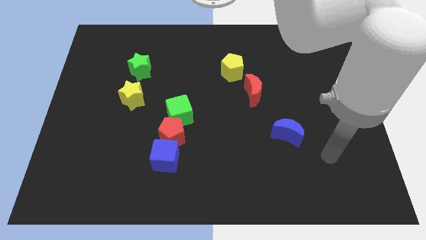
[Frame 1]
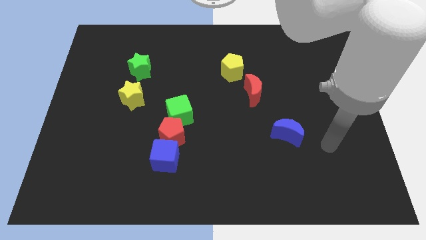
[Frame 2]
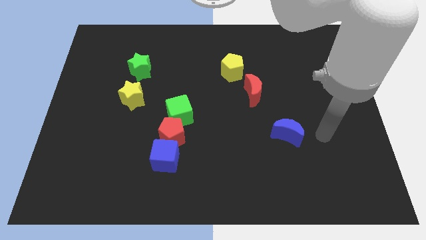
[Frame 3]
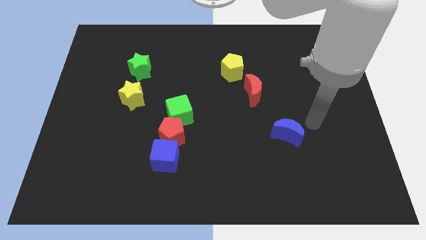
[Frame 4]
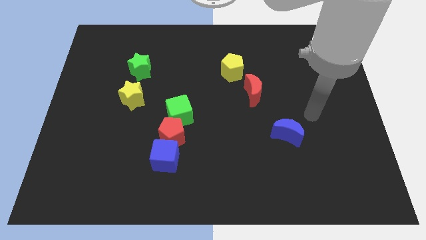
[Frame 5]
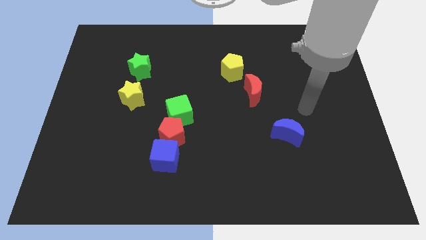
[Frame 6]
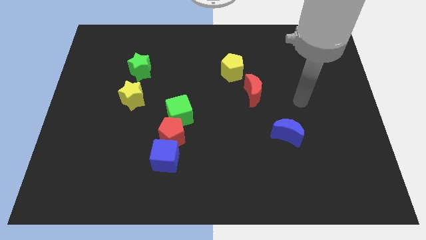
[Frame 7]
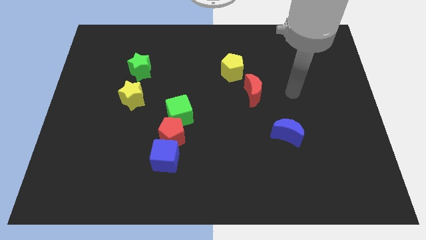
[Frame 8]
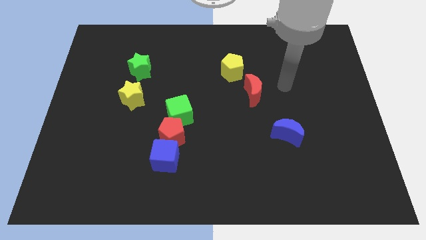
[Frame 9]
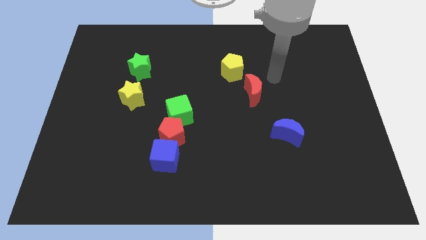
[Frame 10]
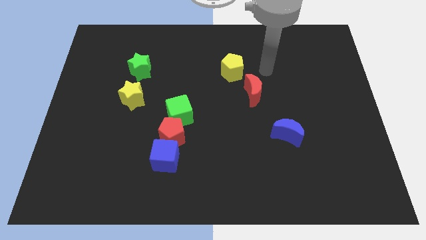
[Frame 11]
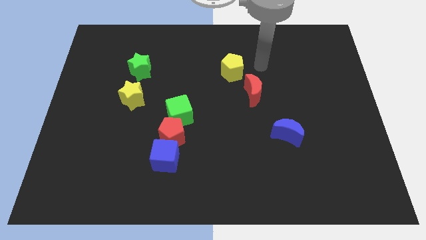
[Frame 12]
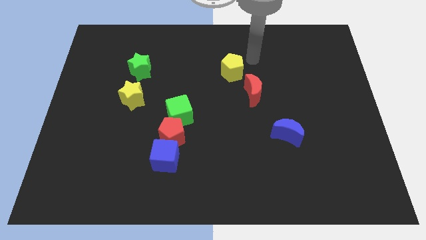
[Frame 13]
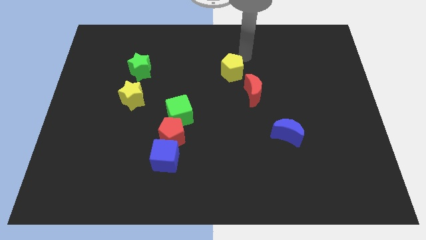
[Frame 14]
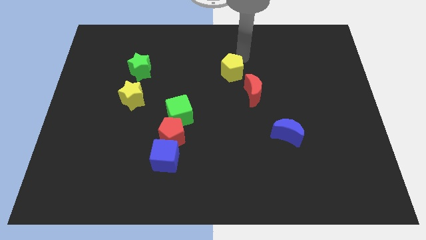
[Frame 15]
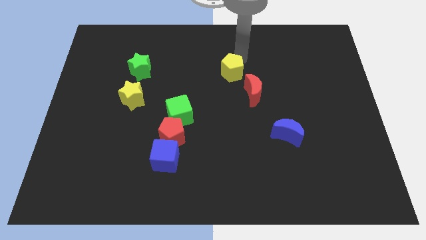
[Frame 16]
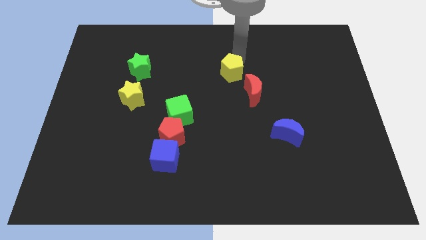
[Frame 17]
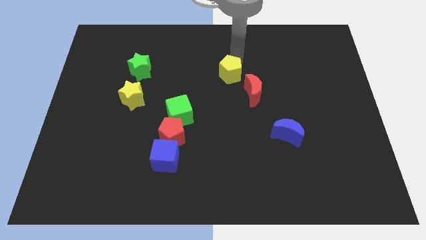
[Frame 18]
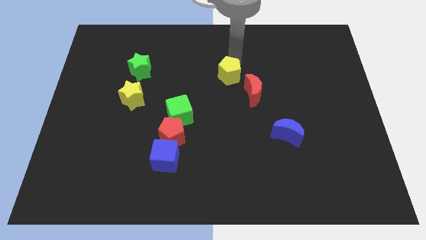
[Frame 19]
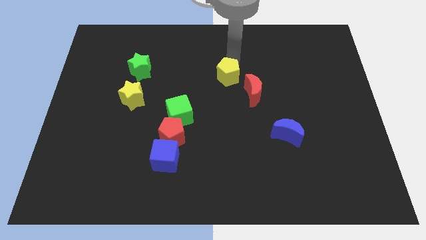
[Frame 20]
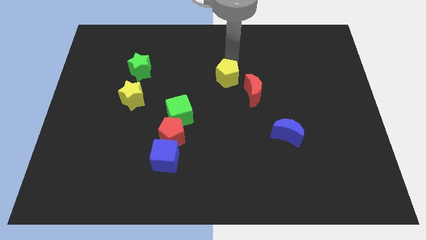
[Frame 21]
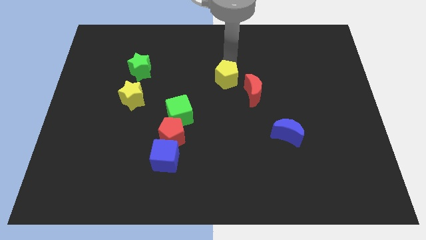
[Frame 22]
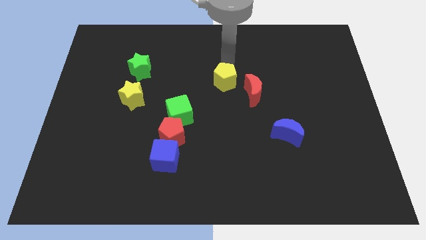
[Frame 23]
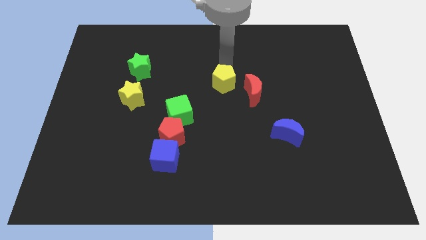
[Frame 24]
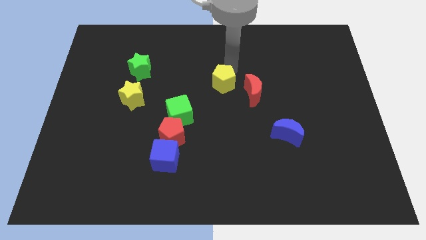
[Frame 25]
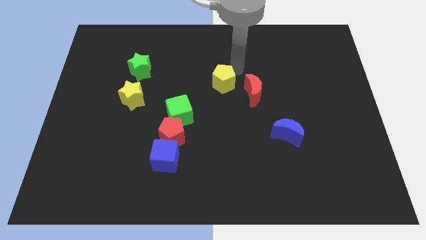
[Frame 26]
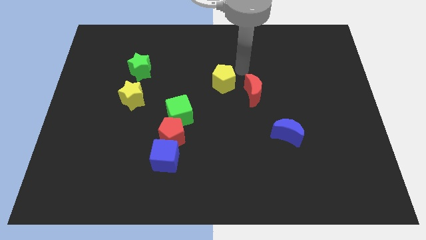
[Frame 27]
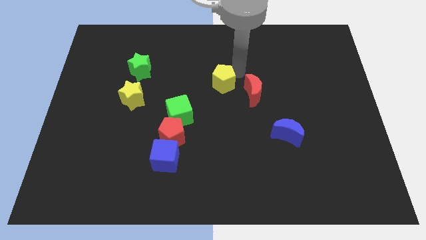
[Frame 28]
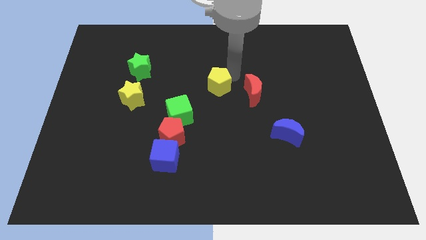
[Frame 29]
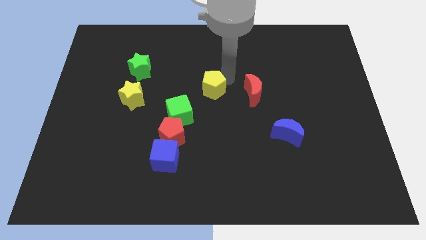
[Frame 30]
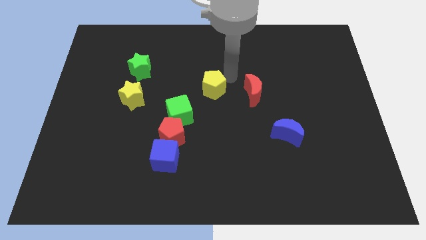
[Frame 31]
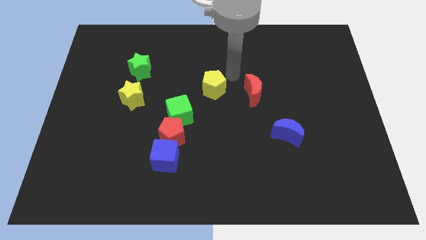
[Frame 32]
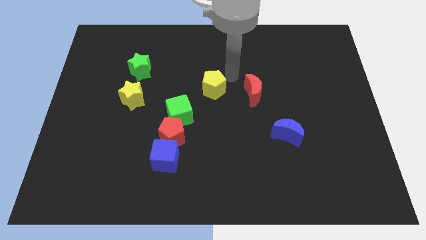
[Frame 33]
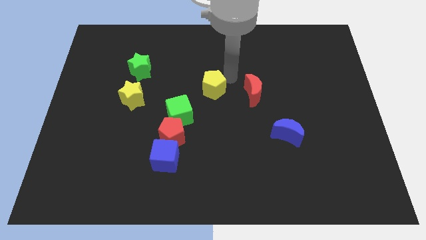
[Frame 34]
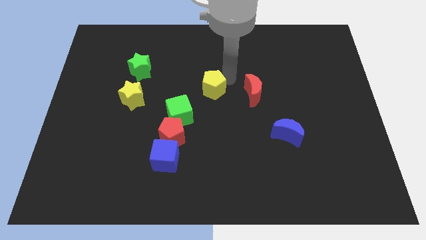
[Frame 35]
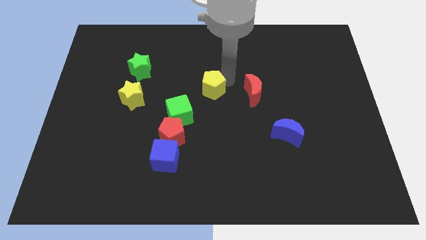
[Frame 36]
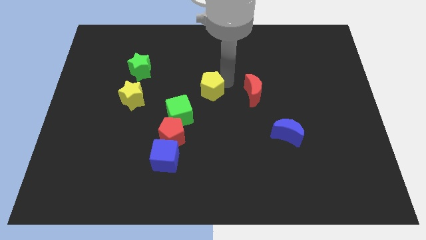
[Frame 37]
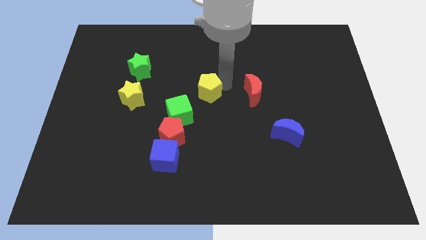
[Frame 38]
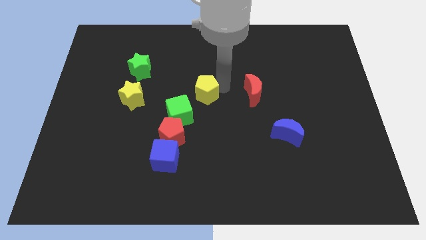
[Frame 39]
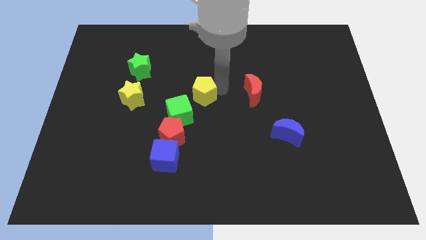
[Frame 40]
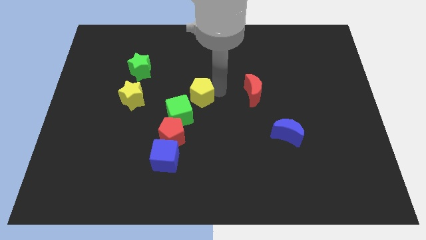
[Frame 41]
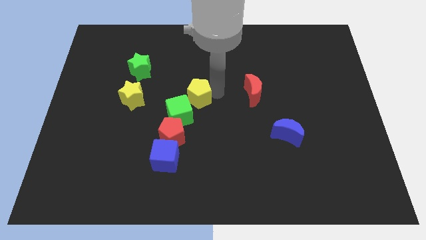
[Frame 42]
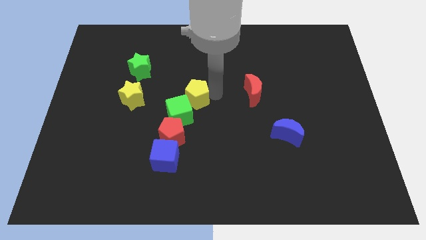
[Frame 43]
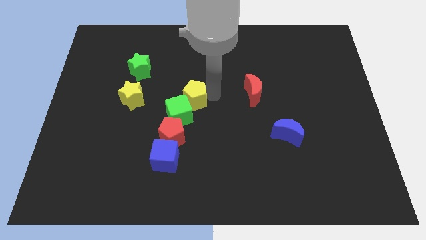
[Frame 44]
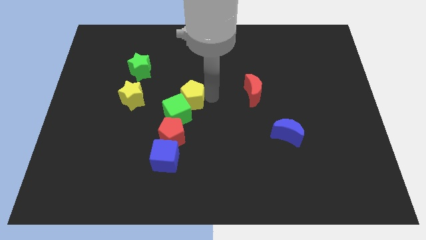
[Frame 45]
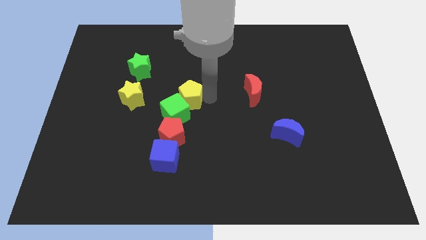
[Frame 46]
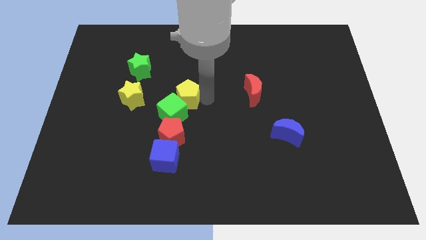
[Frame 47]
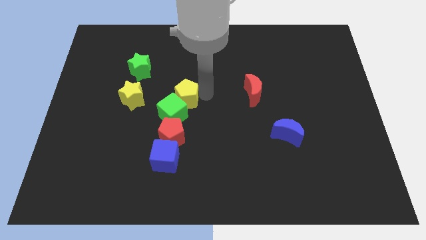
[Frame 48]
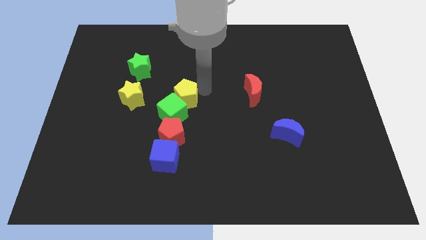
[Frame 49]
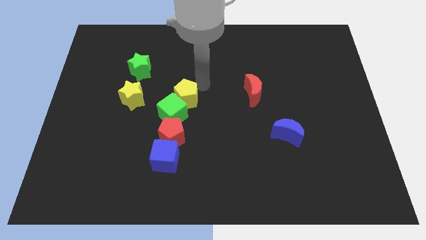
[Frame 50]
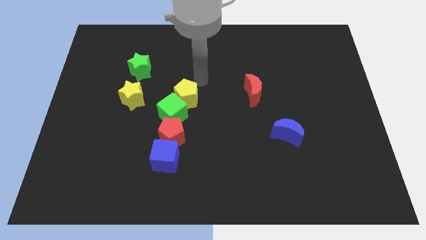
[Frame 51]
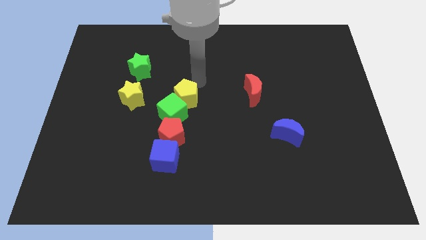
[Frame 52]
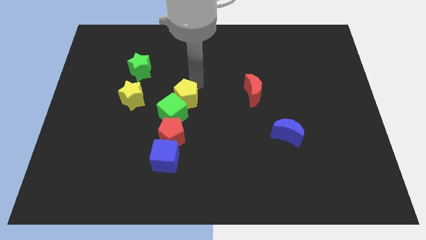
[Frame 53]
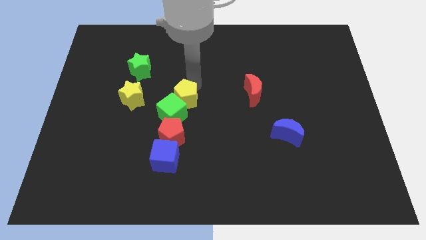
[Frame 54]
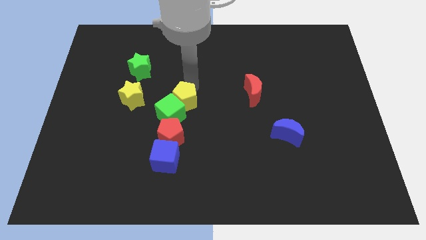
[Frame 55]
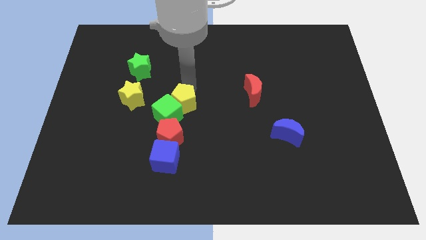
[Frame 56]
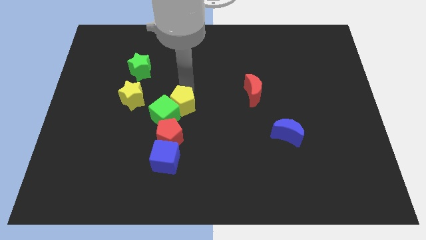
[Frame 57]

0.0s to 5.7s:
put the yellow pentagon to the top side of the blue cube

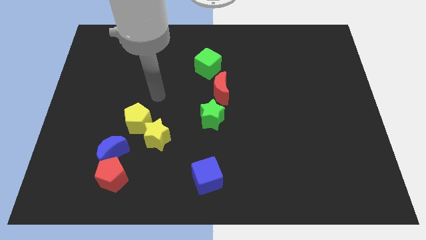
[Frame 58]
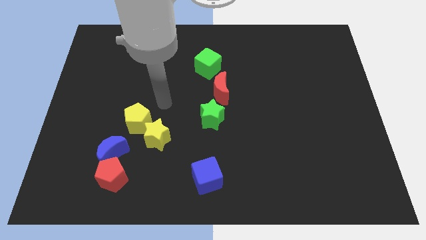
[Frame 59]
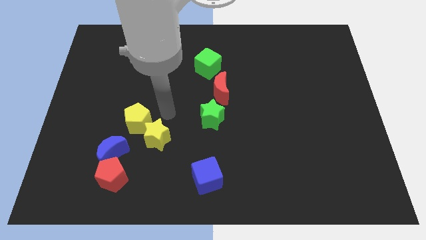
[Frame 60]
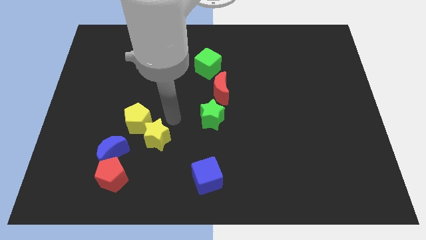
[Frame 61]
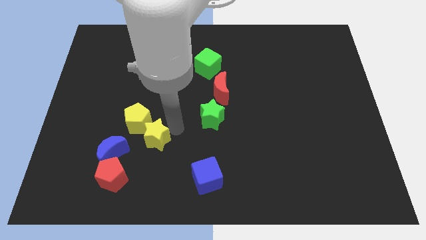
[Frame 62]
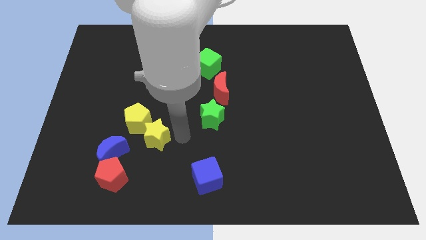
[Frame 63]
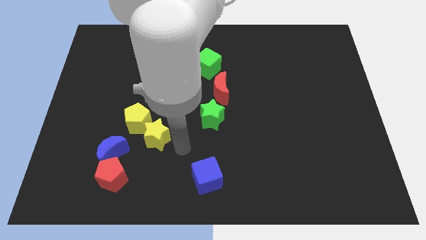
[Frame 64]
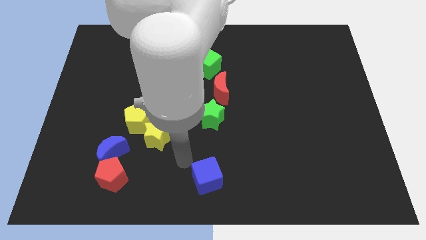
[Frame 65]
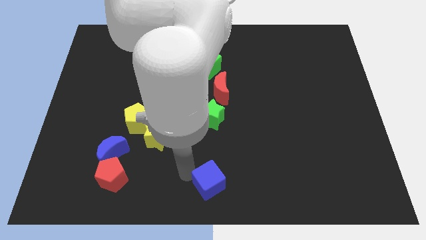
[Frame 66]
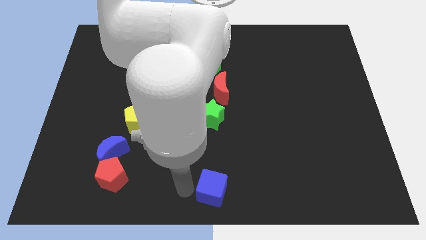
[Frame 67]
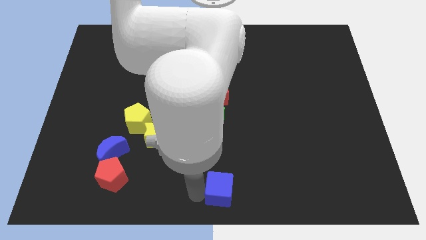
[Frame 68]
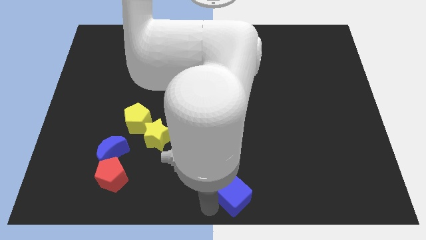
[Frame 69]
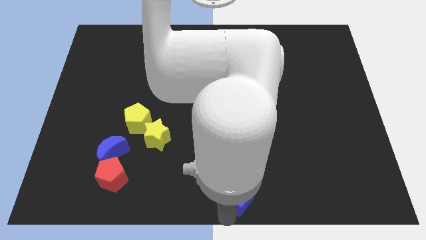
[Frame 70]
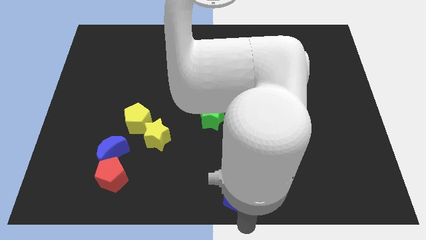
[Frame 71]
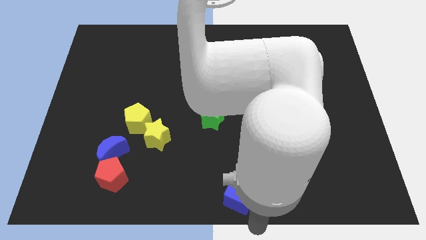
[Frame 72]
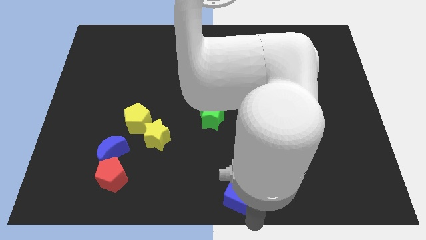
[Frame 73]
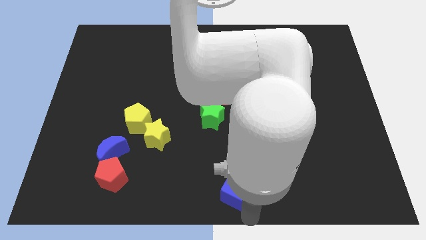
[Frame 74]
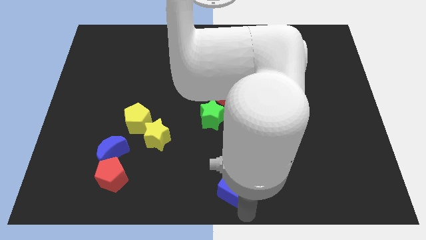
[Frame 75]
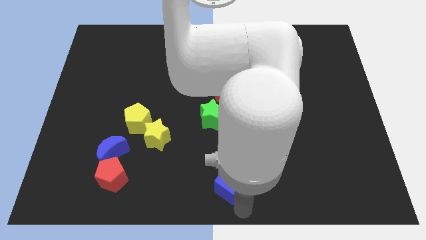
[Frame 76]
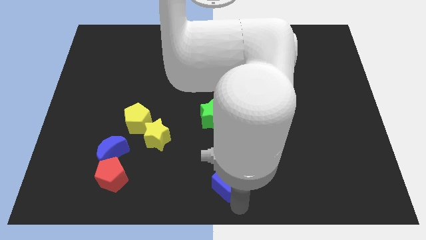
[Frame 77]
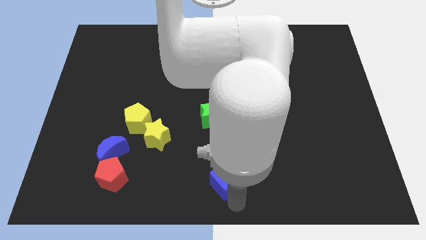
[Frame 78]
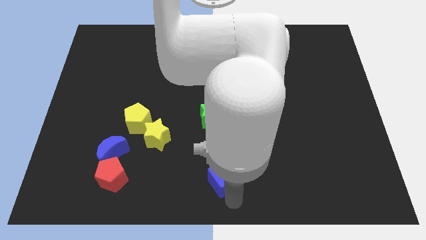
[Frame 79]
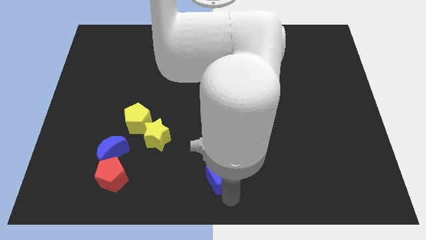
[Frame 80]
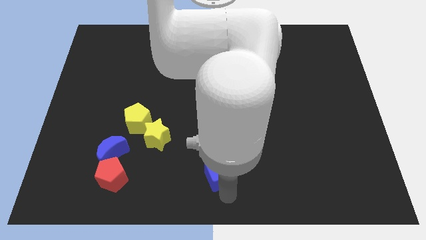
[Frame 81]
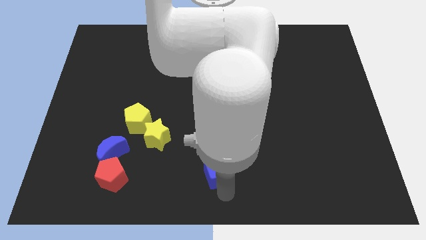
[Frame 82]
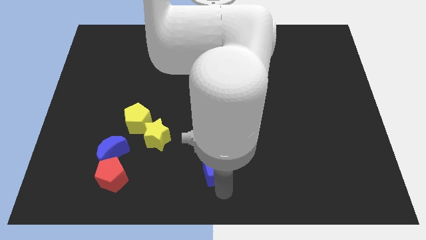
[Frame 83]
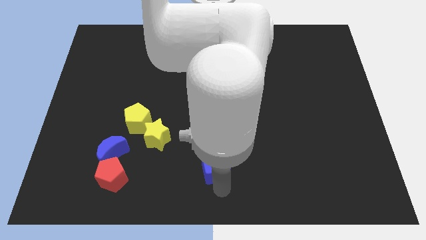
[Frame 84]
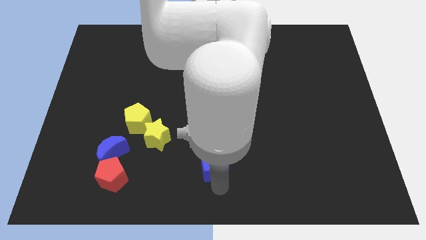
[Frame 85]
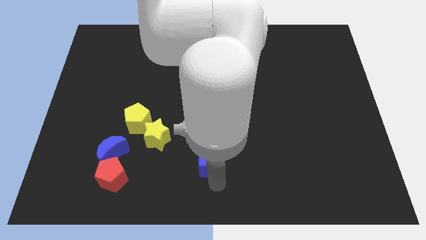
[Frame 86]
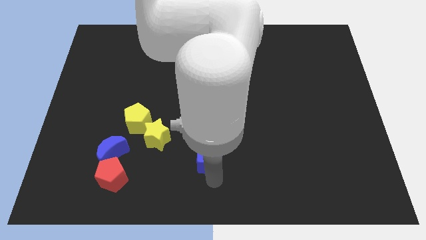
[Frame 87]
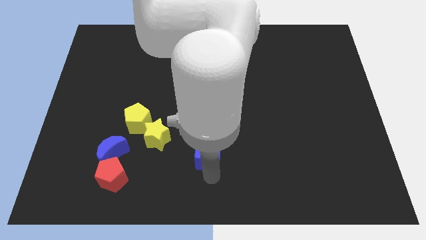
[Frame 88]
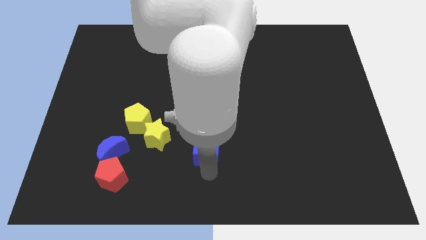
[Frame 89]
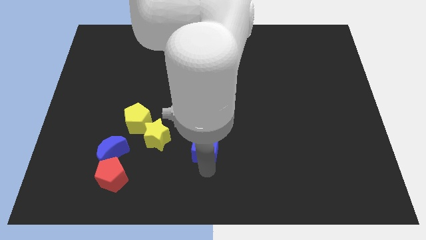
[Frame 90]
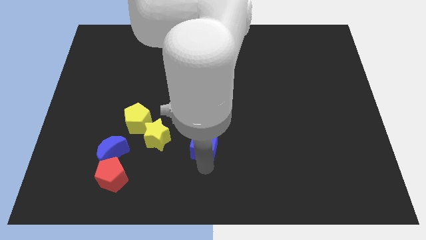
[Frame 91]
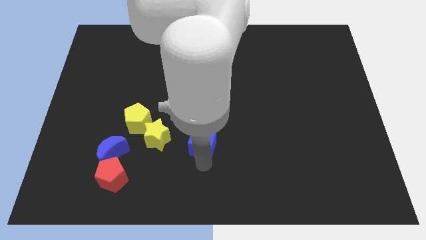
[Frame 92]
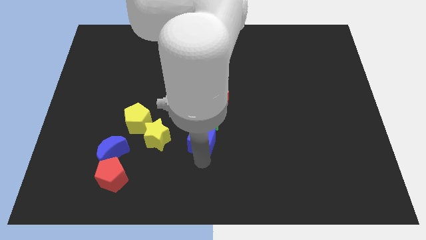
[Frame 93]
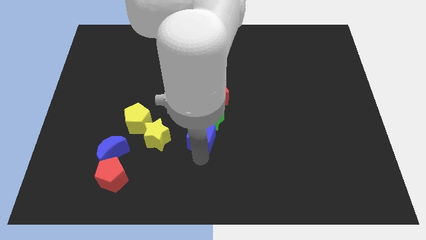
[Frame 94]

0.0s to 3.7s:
move the blue cube to the bottom of the red moon
